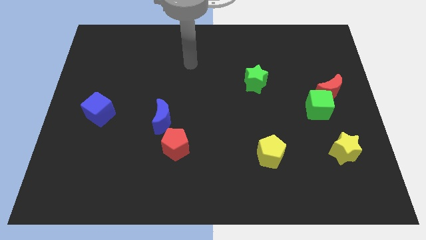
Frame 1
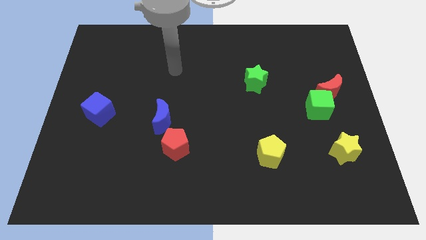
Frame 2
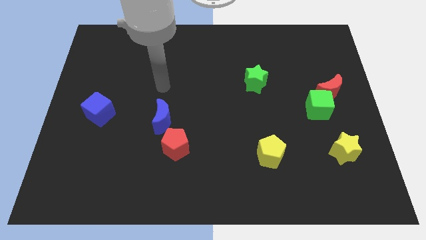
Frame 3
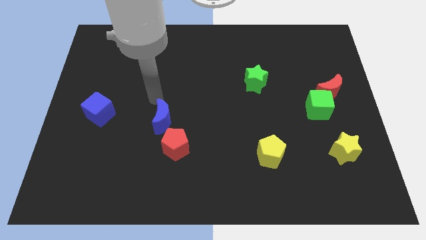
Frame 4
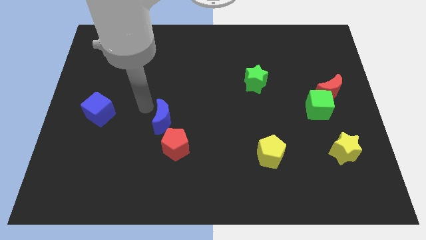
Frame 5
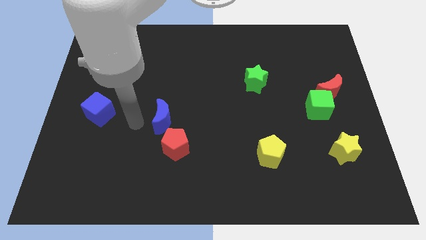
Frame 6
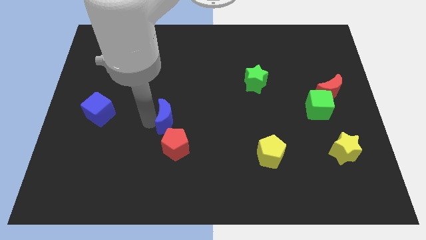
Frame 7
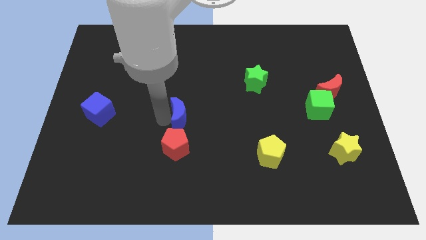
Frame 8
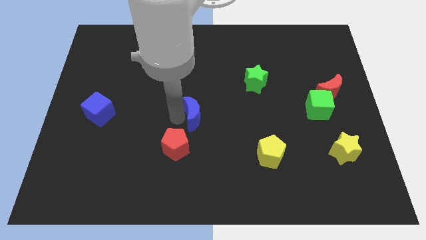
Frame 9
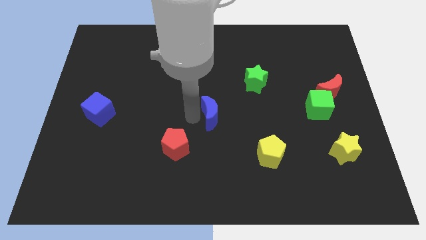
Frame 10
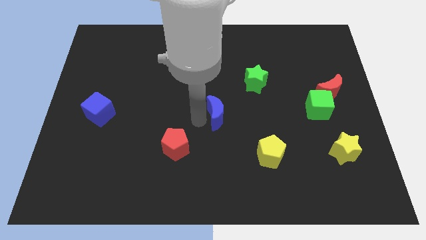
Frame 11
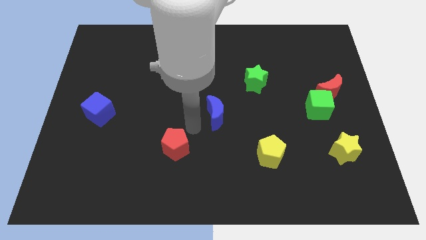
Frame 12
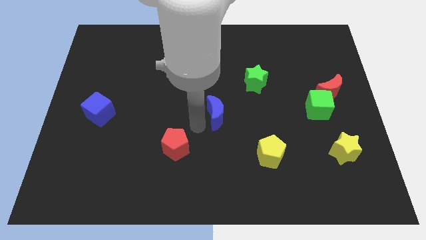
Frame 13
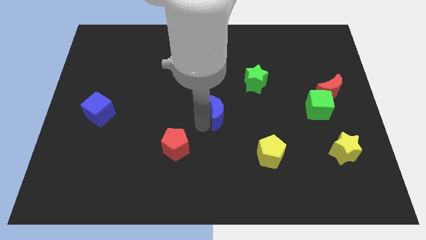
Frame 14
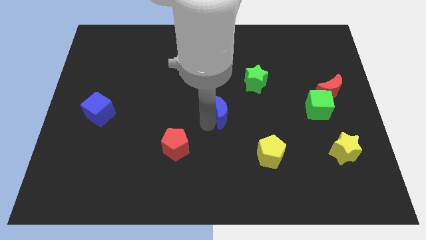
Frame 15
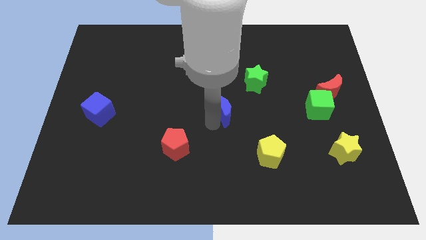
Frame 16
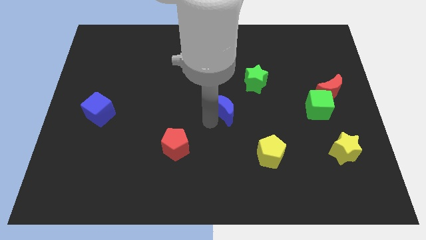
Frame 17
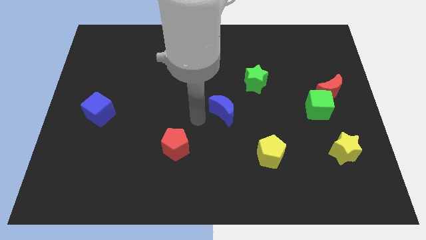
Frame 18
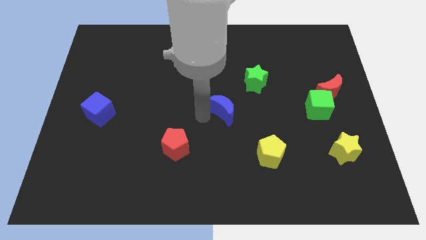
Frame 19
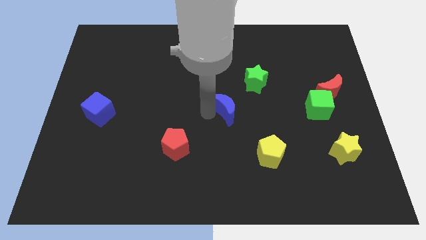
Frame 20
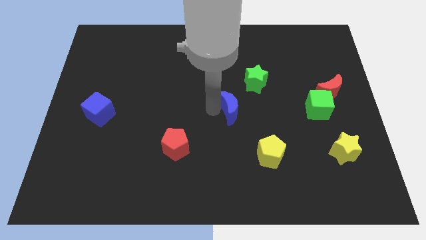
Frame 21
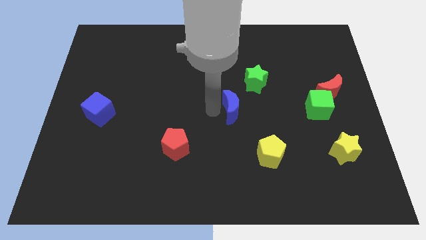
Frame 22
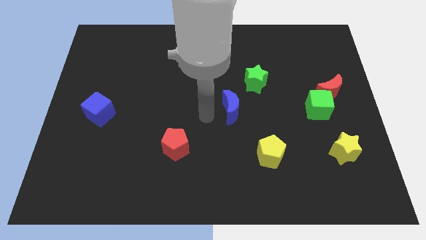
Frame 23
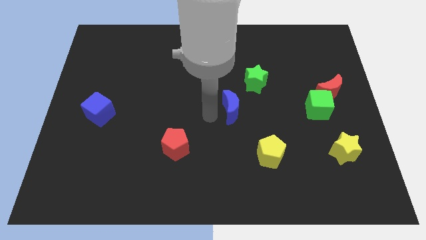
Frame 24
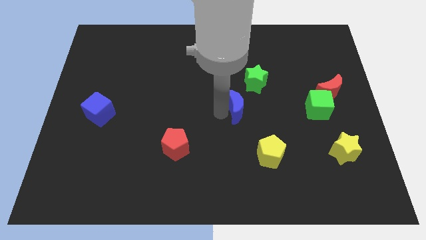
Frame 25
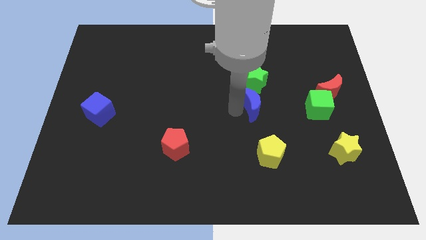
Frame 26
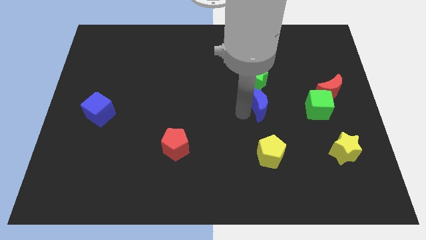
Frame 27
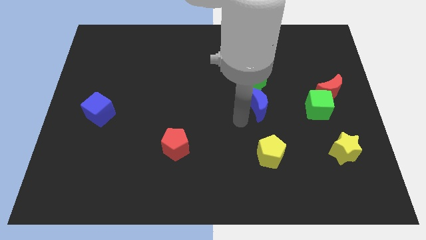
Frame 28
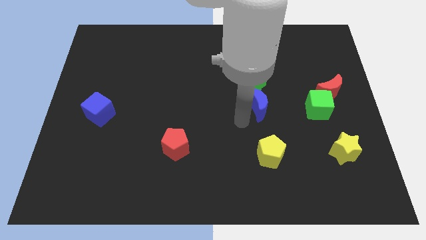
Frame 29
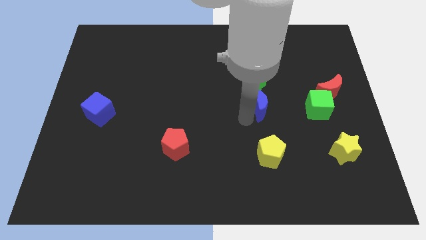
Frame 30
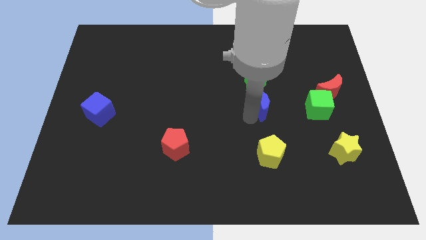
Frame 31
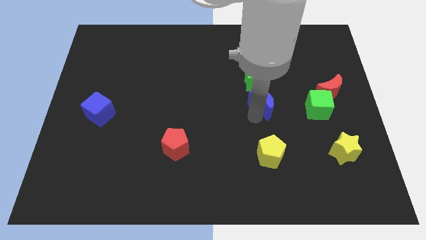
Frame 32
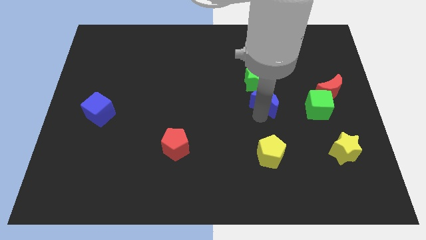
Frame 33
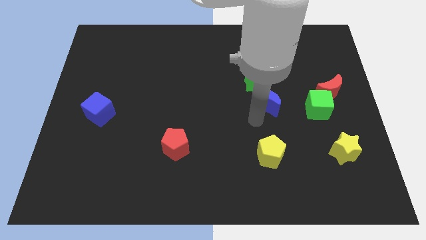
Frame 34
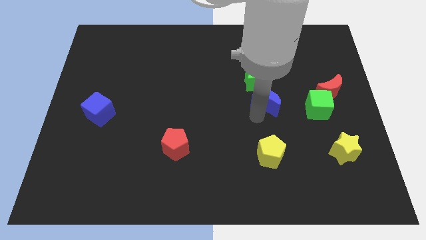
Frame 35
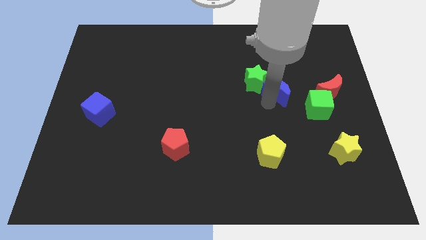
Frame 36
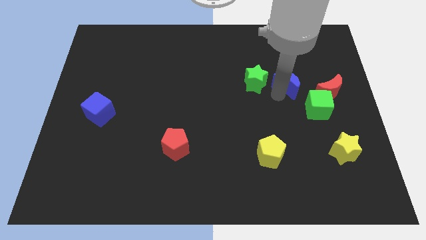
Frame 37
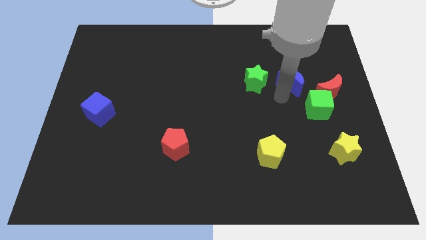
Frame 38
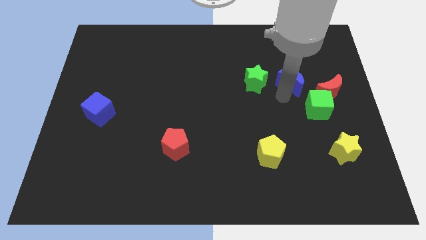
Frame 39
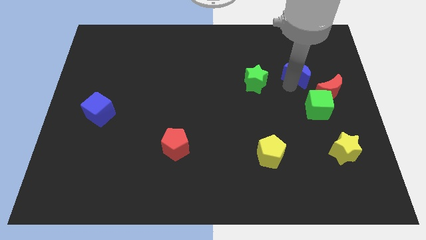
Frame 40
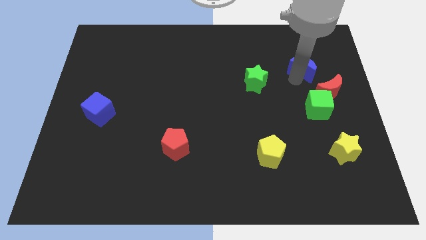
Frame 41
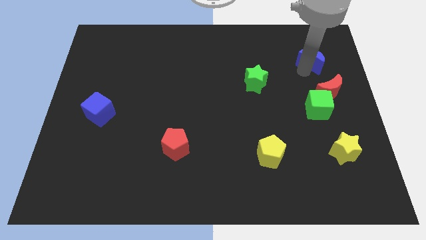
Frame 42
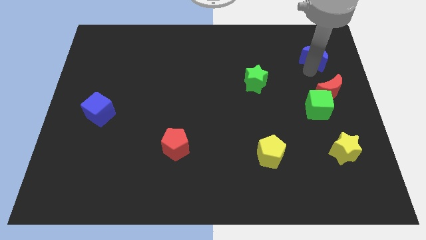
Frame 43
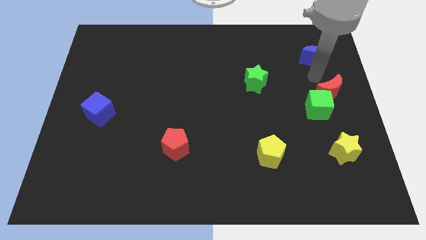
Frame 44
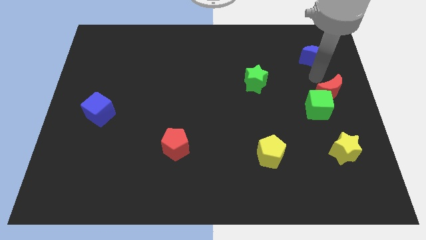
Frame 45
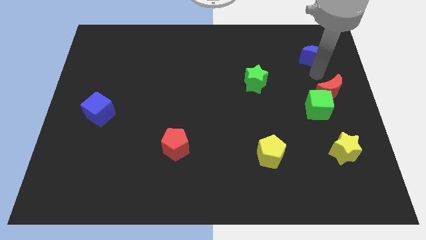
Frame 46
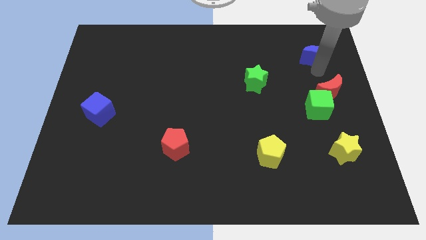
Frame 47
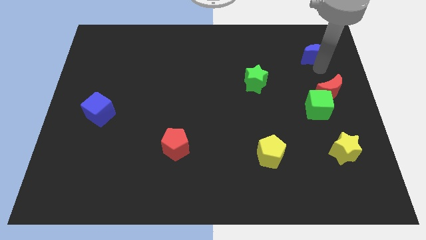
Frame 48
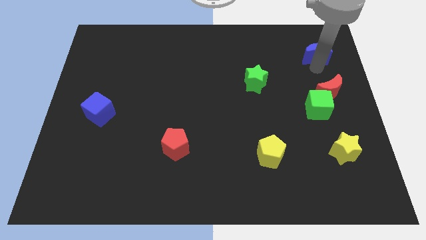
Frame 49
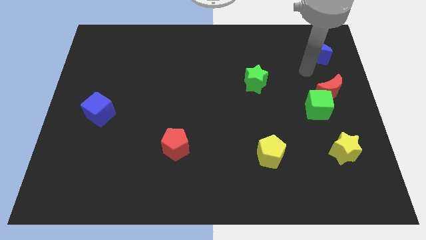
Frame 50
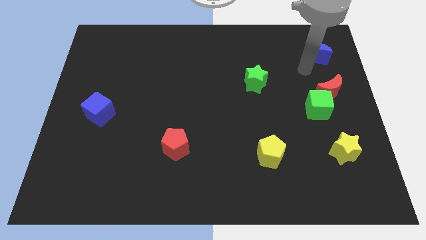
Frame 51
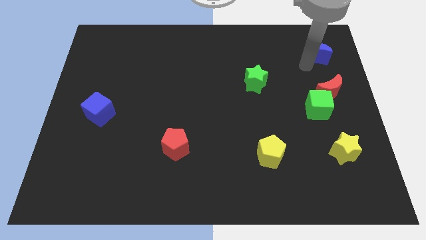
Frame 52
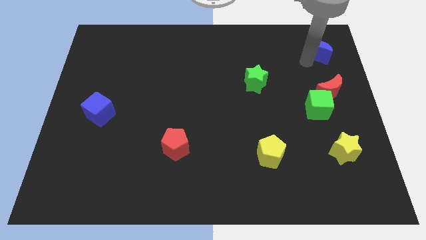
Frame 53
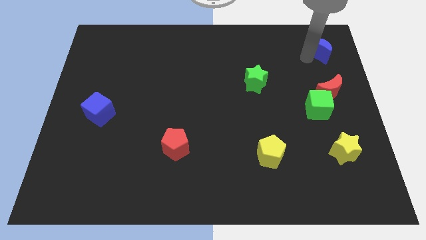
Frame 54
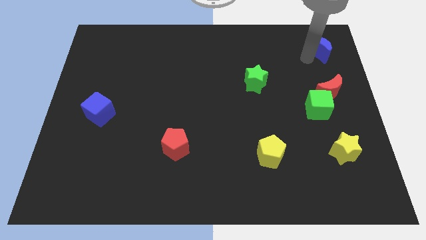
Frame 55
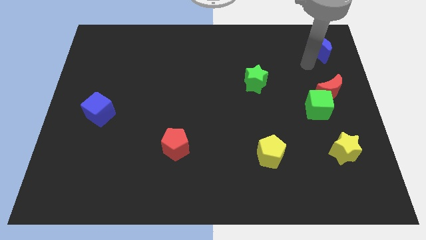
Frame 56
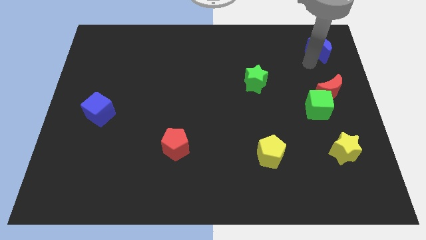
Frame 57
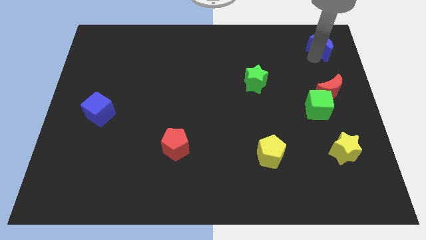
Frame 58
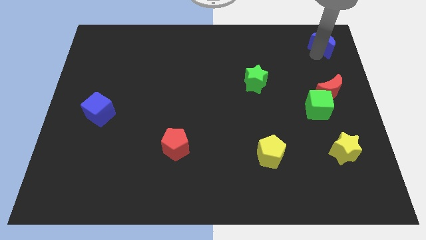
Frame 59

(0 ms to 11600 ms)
put the blue moon to the top right
